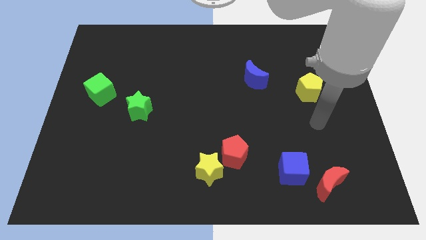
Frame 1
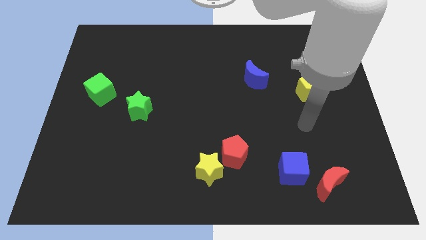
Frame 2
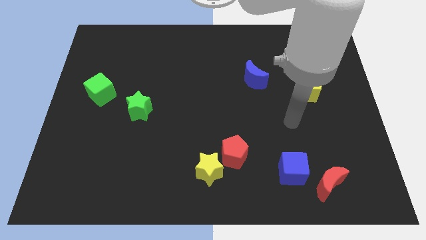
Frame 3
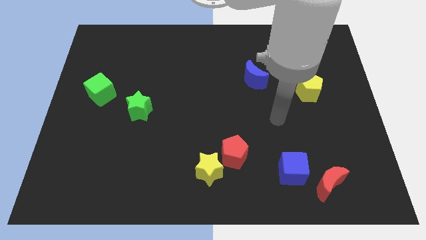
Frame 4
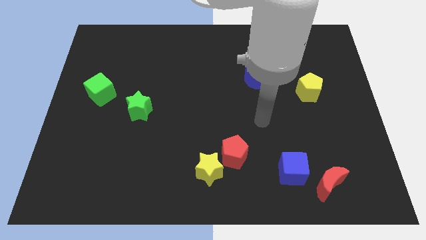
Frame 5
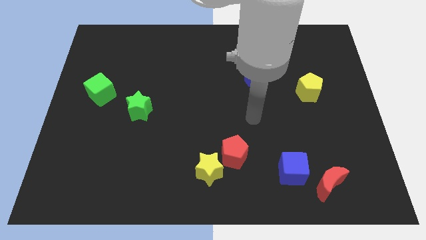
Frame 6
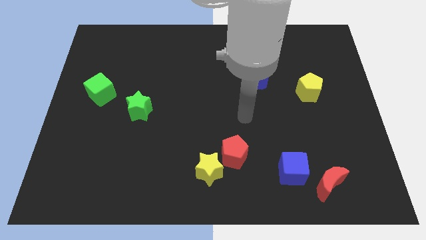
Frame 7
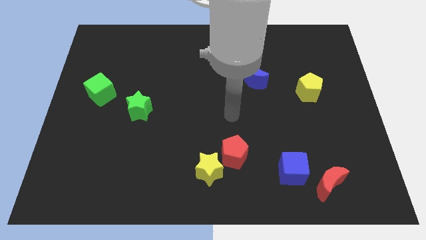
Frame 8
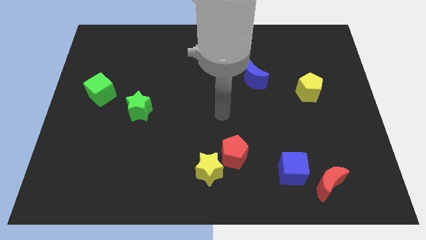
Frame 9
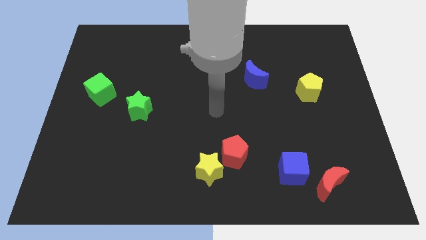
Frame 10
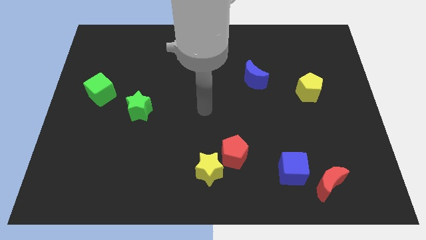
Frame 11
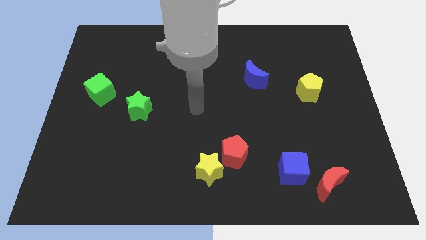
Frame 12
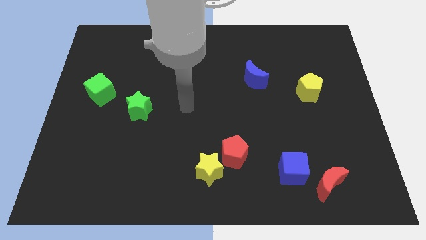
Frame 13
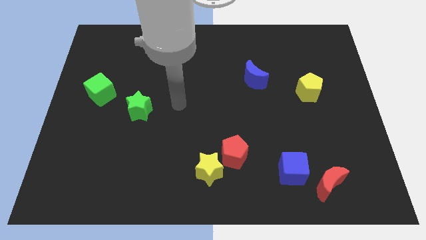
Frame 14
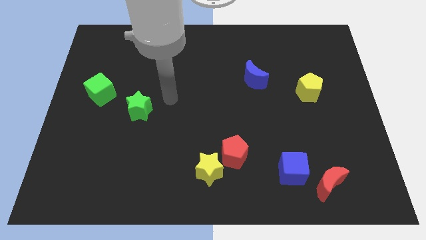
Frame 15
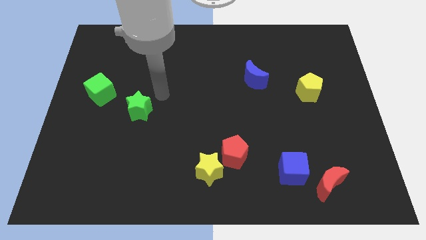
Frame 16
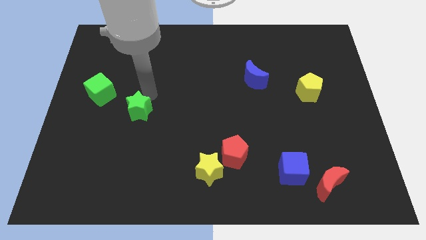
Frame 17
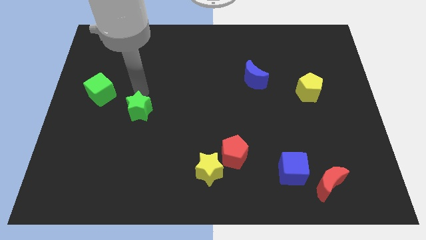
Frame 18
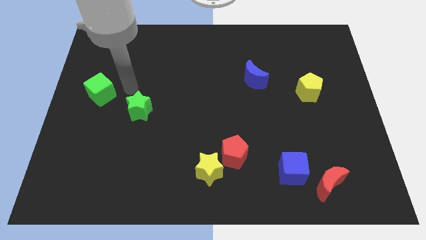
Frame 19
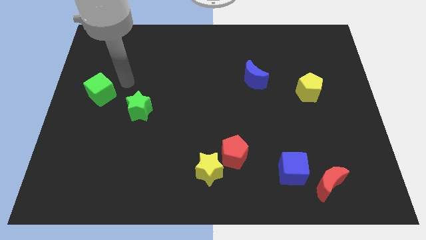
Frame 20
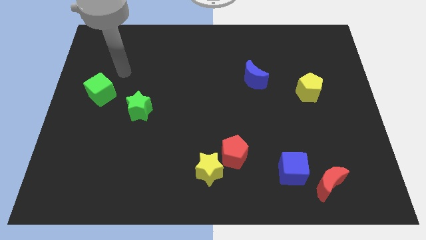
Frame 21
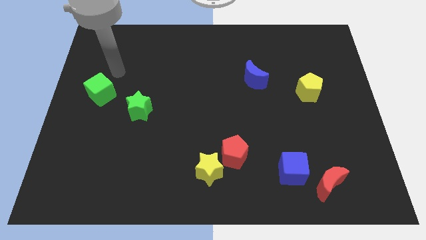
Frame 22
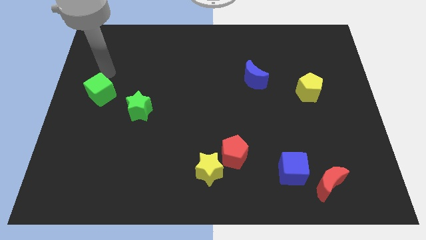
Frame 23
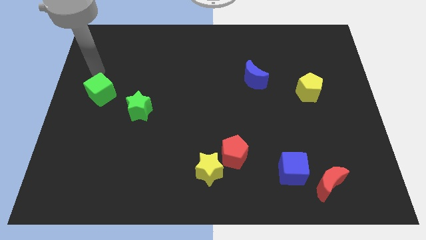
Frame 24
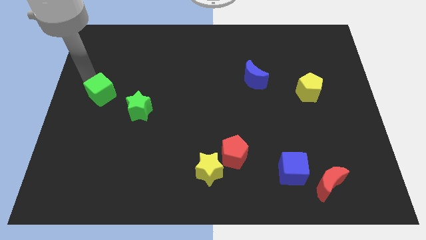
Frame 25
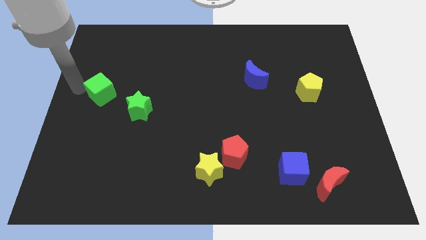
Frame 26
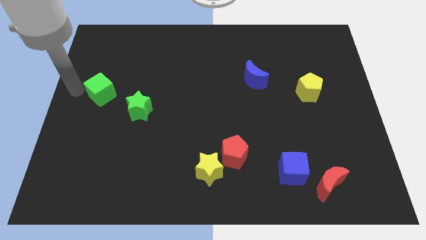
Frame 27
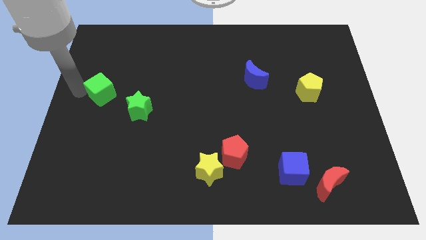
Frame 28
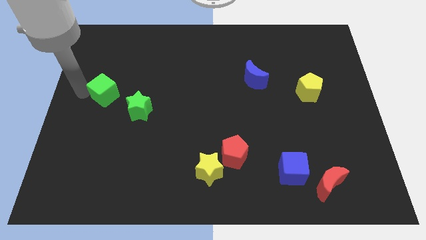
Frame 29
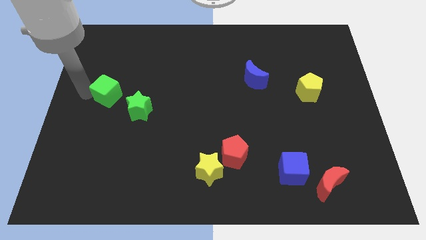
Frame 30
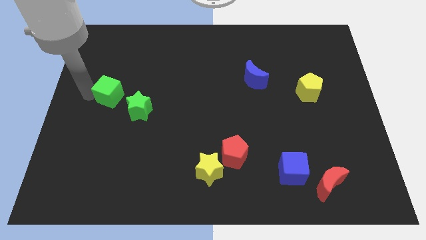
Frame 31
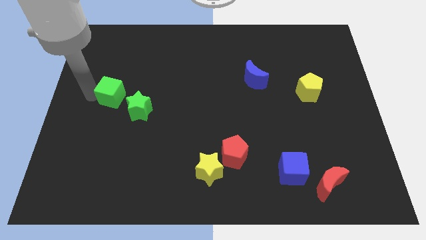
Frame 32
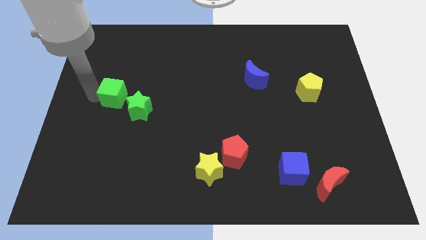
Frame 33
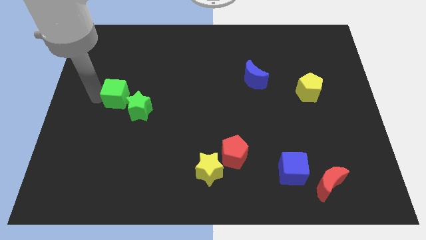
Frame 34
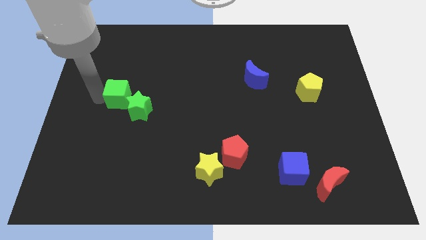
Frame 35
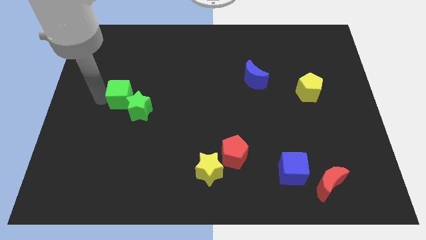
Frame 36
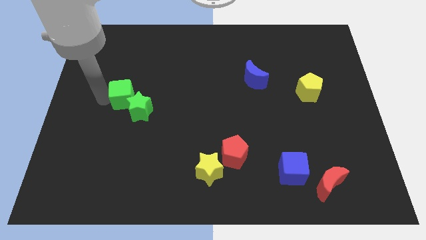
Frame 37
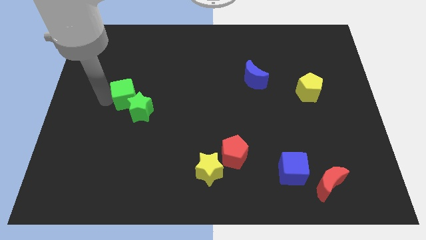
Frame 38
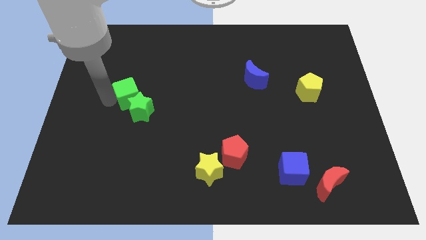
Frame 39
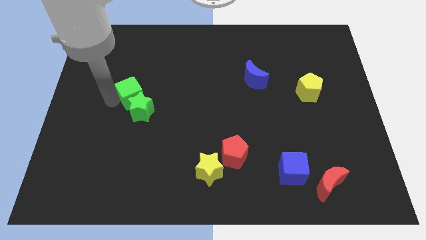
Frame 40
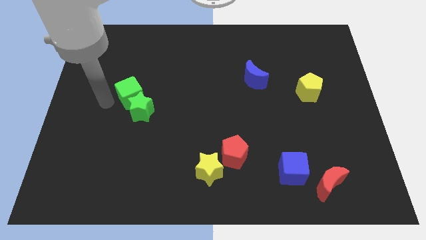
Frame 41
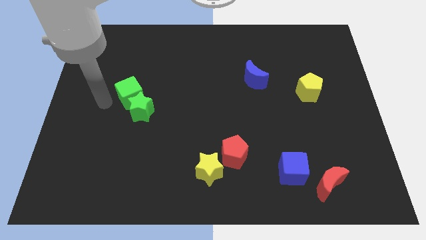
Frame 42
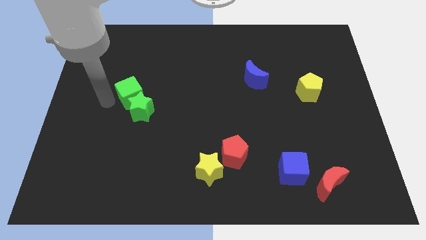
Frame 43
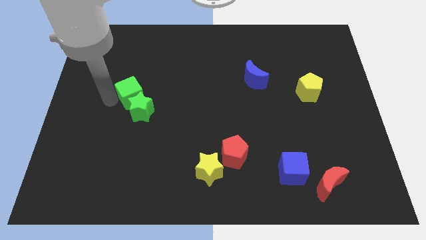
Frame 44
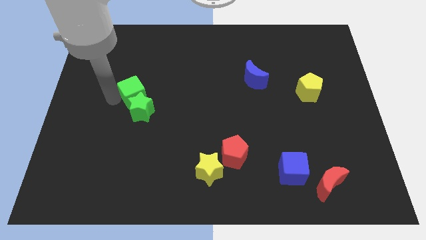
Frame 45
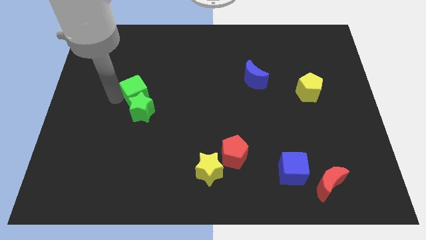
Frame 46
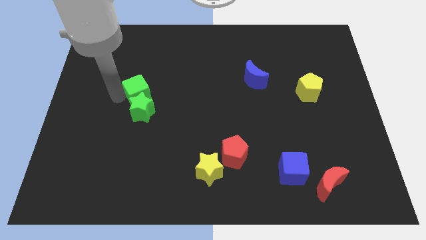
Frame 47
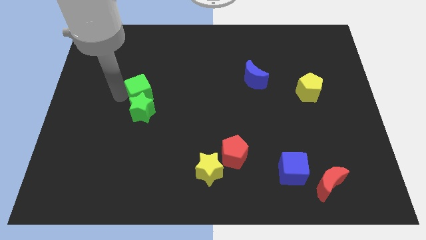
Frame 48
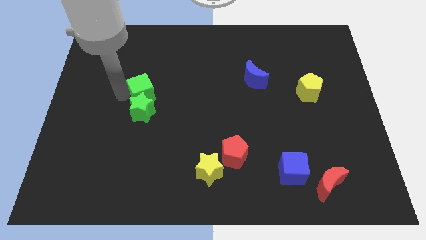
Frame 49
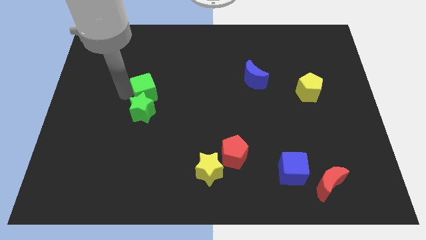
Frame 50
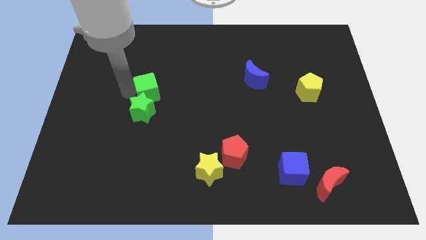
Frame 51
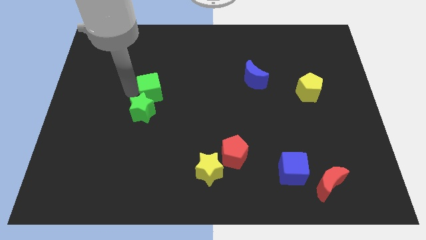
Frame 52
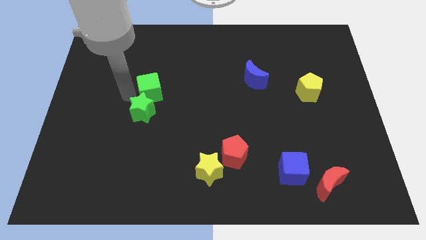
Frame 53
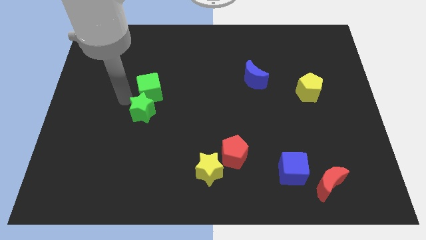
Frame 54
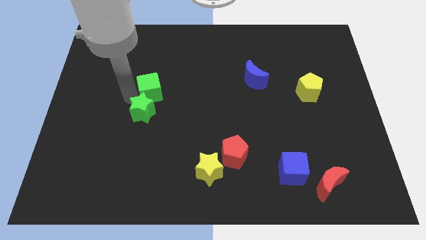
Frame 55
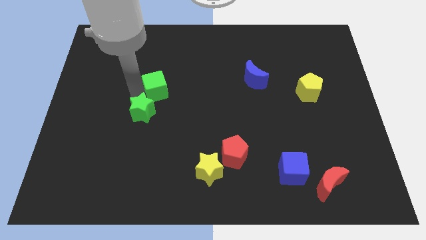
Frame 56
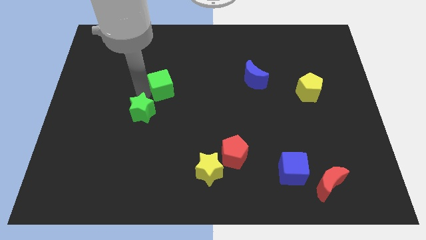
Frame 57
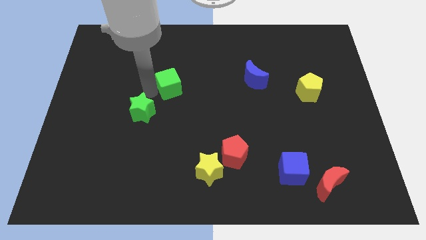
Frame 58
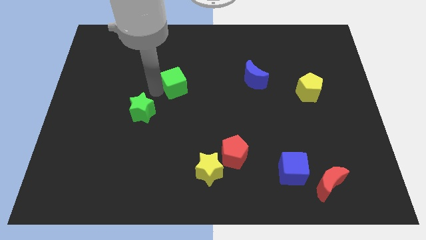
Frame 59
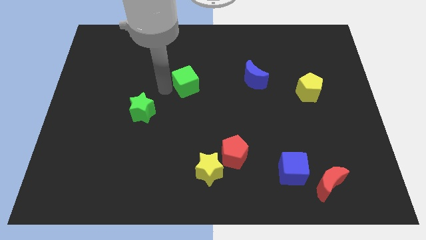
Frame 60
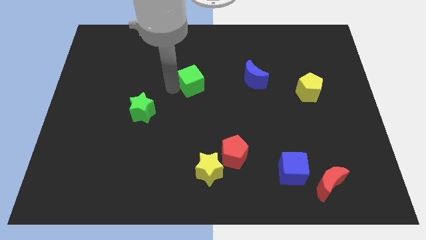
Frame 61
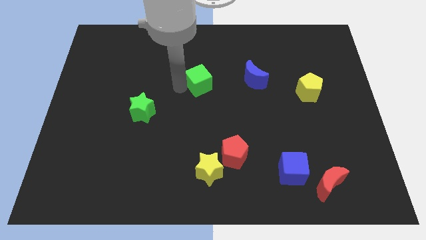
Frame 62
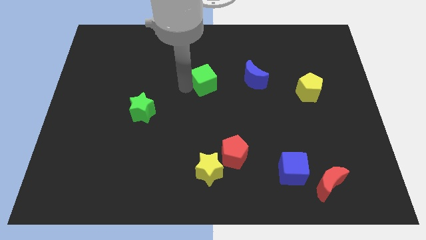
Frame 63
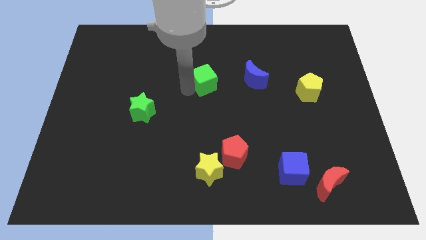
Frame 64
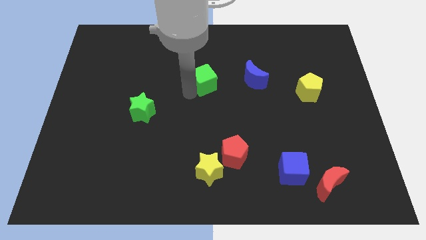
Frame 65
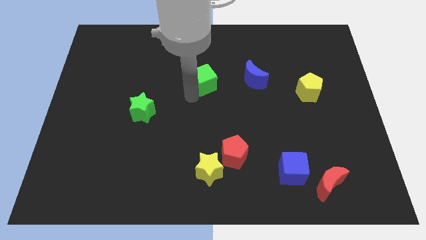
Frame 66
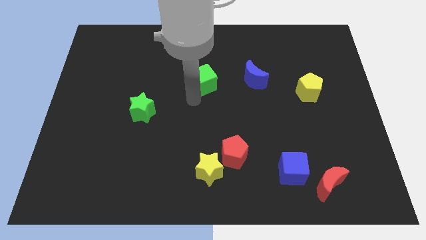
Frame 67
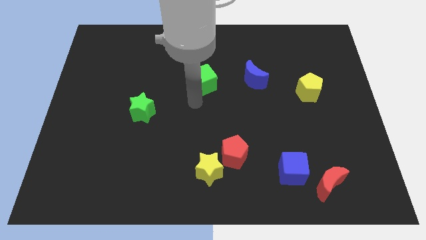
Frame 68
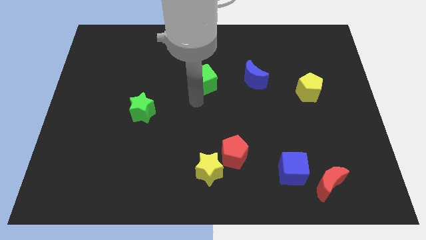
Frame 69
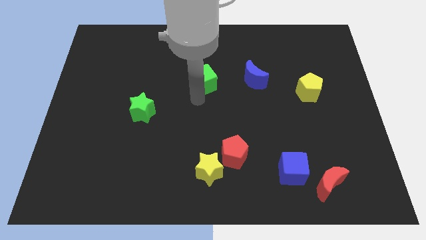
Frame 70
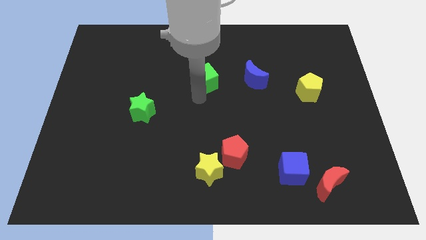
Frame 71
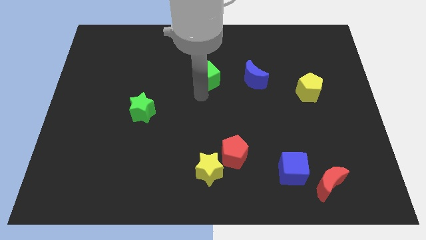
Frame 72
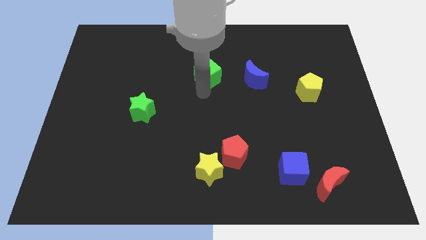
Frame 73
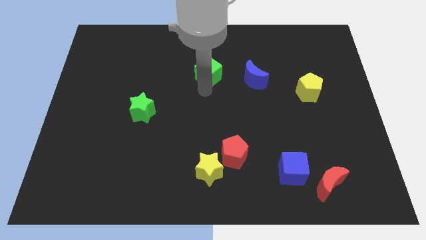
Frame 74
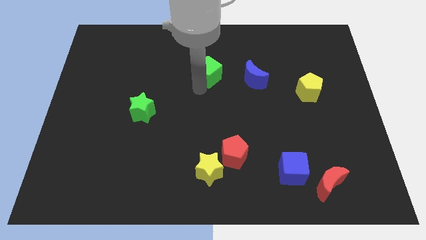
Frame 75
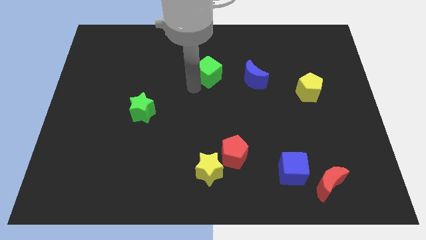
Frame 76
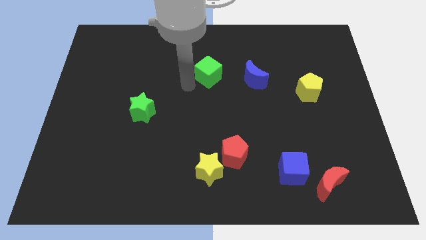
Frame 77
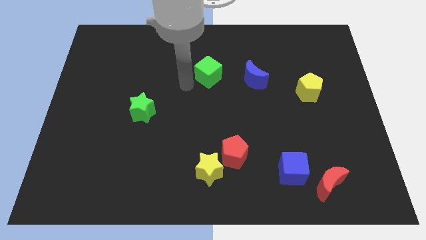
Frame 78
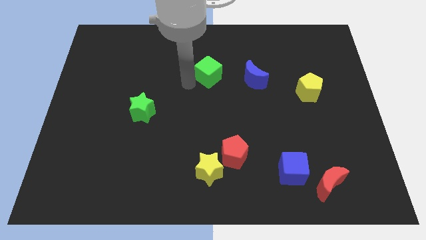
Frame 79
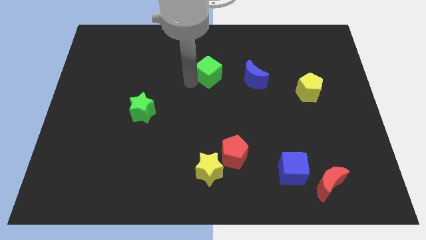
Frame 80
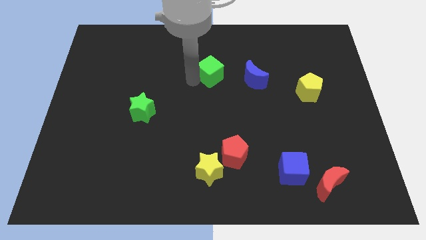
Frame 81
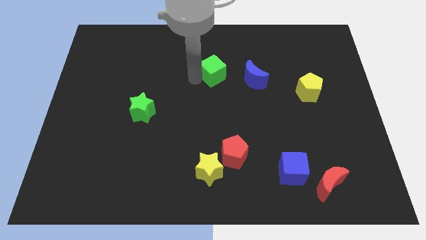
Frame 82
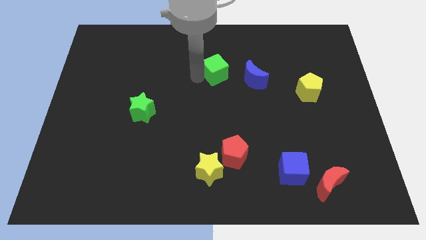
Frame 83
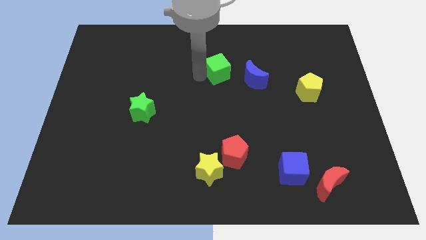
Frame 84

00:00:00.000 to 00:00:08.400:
move the green cube to the top left side of the blue moon
